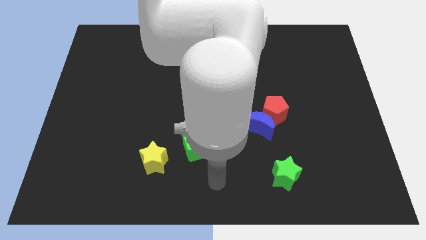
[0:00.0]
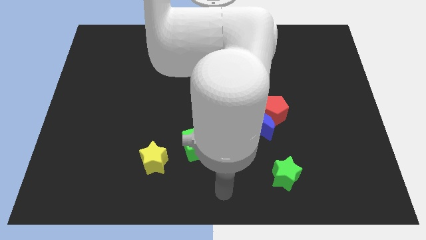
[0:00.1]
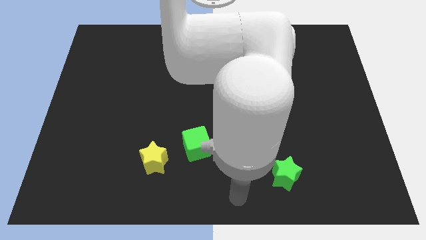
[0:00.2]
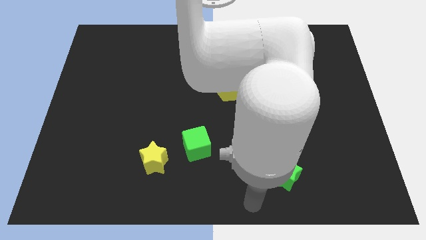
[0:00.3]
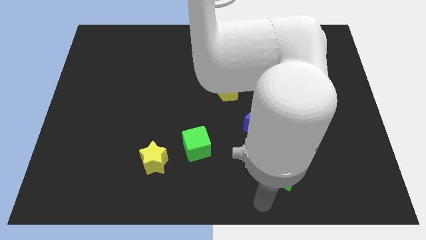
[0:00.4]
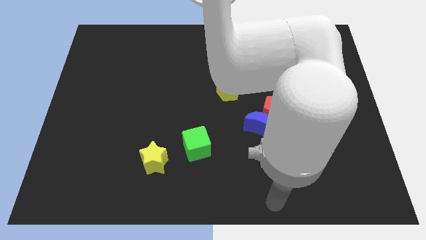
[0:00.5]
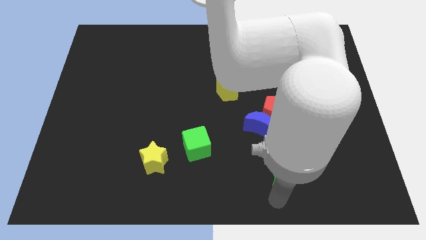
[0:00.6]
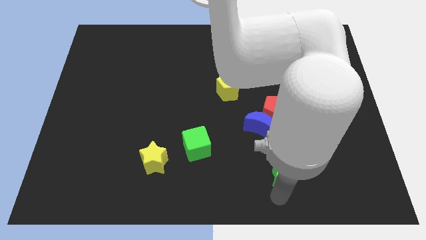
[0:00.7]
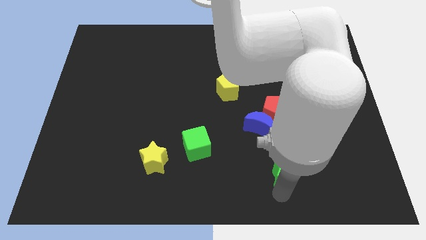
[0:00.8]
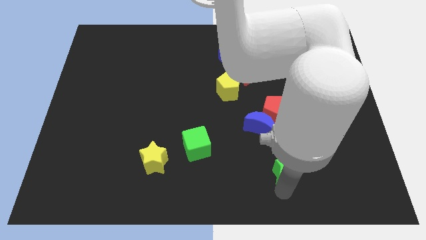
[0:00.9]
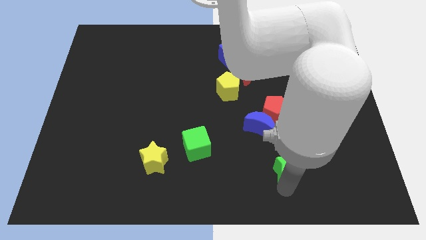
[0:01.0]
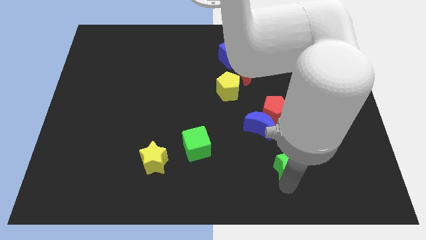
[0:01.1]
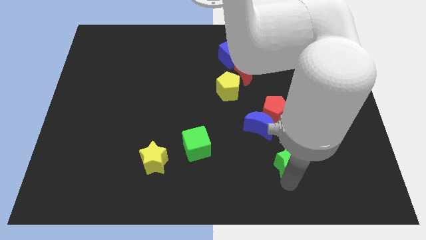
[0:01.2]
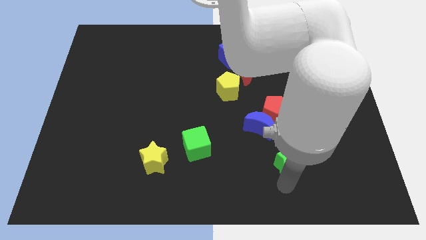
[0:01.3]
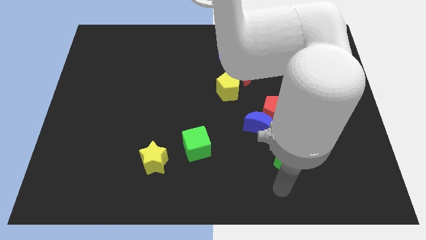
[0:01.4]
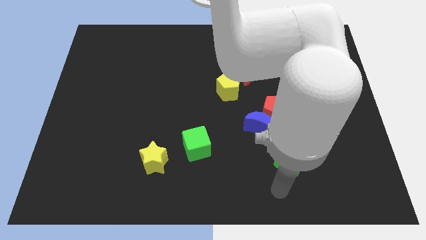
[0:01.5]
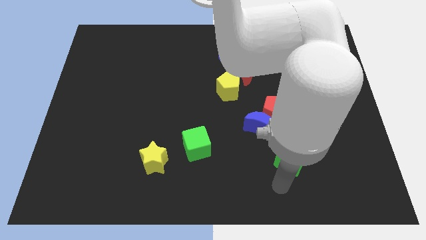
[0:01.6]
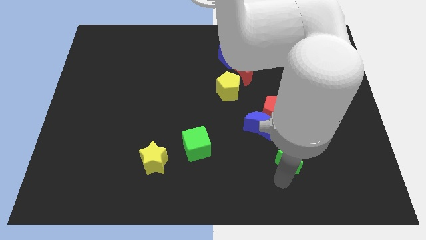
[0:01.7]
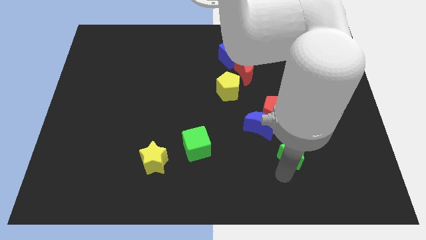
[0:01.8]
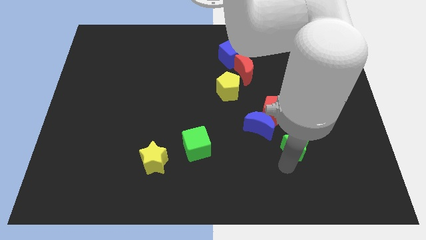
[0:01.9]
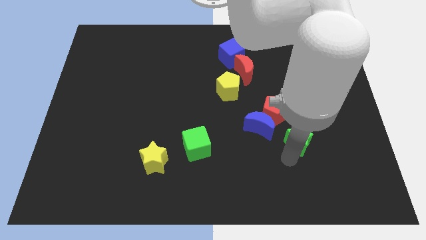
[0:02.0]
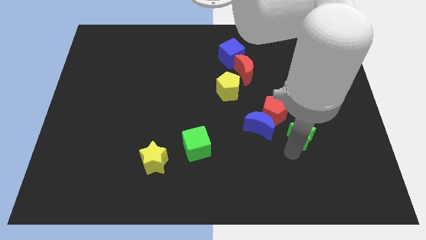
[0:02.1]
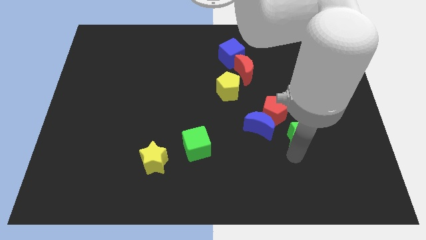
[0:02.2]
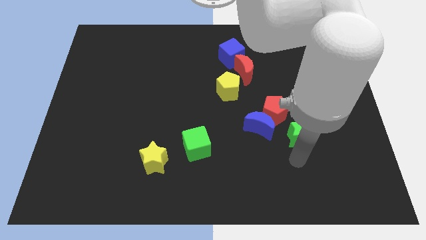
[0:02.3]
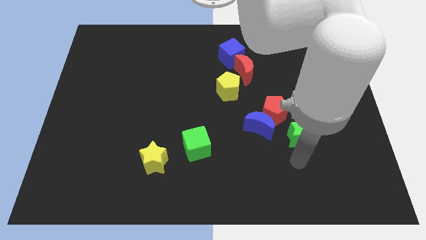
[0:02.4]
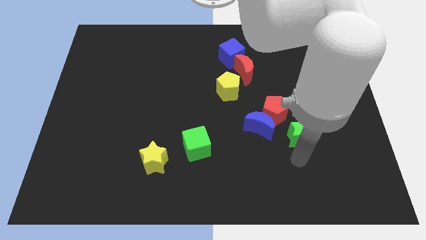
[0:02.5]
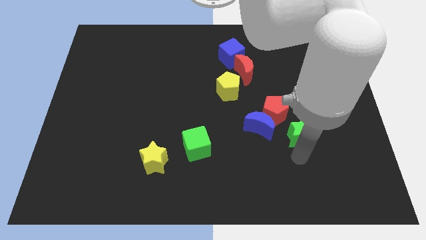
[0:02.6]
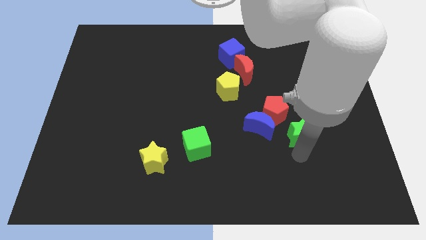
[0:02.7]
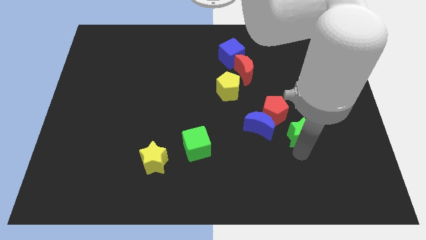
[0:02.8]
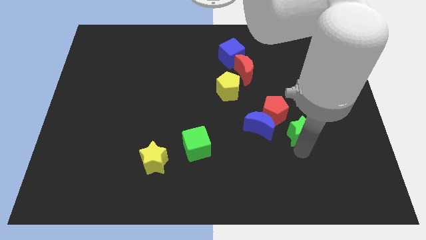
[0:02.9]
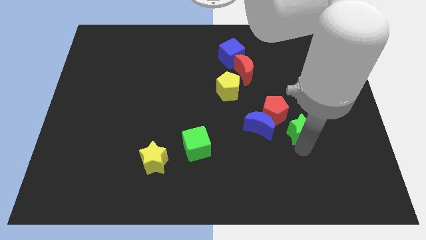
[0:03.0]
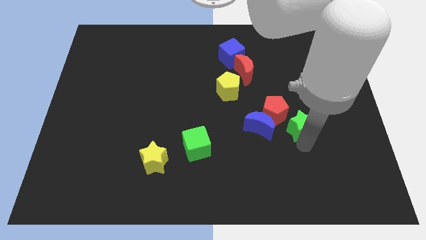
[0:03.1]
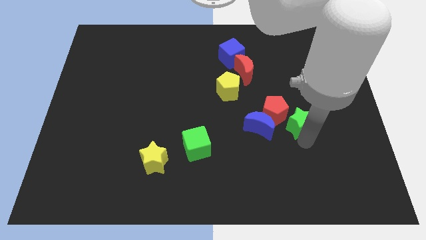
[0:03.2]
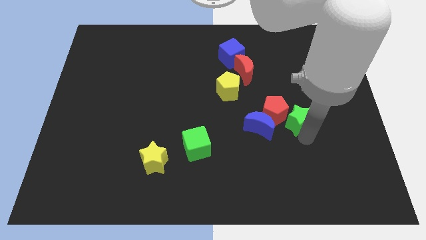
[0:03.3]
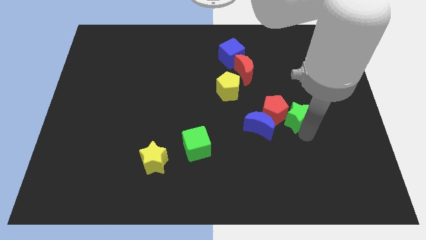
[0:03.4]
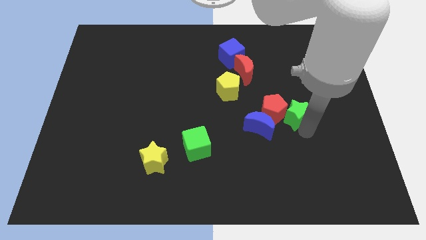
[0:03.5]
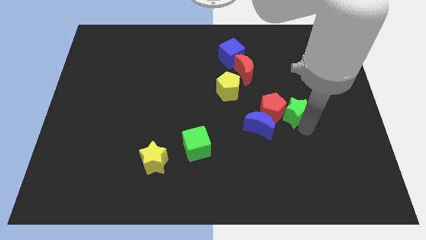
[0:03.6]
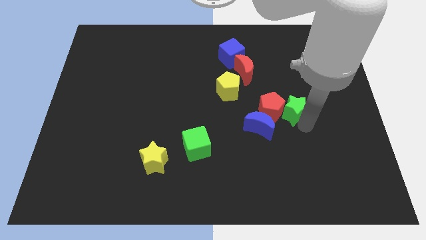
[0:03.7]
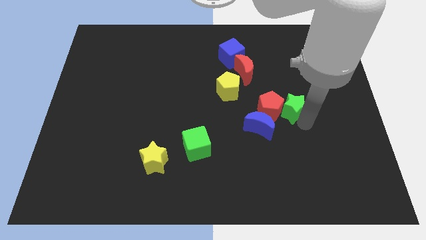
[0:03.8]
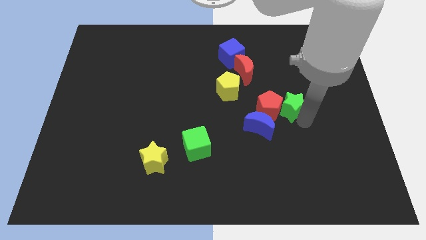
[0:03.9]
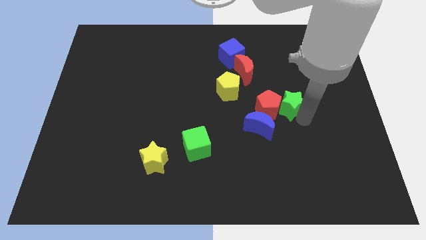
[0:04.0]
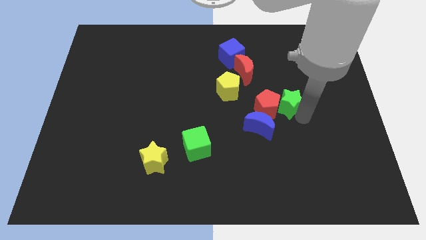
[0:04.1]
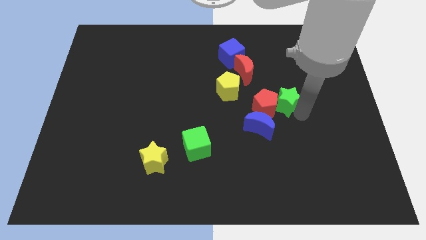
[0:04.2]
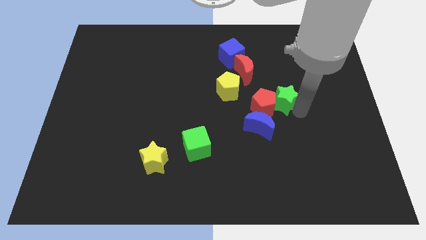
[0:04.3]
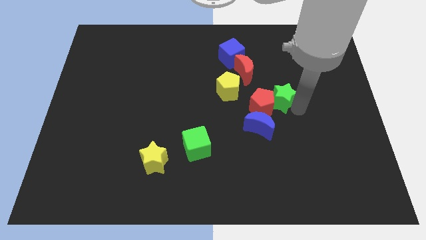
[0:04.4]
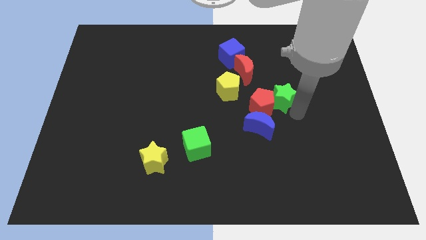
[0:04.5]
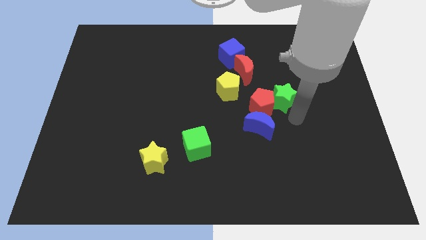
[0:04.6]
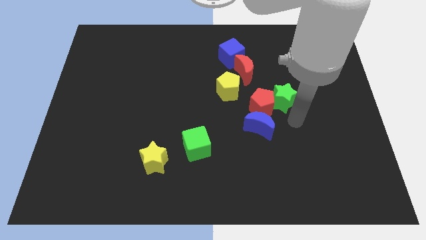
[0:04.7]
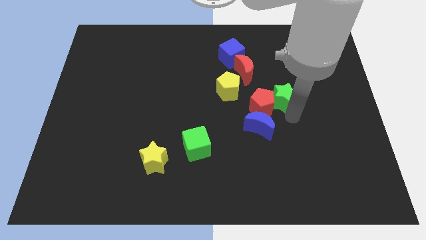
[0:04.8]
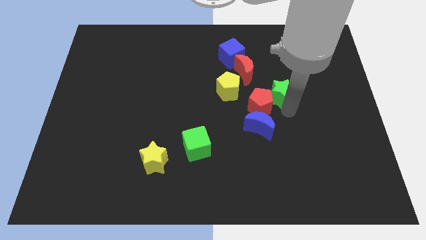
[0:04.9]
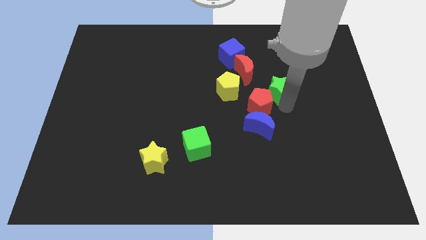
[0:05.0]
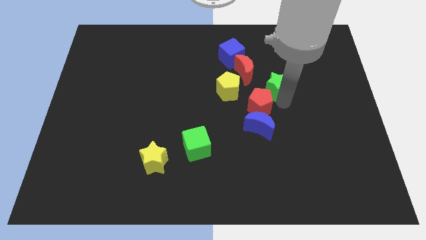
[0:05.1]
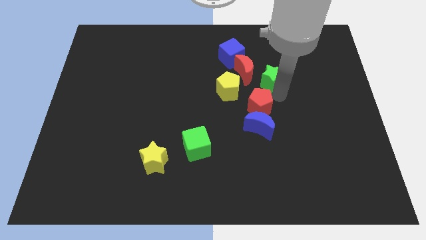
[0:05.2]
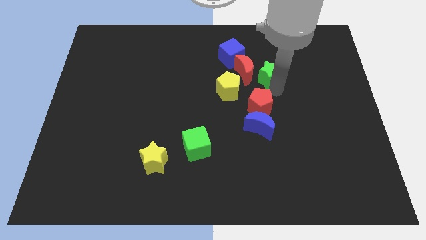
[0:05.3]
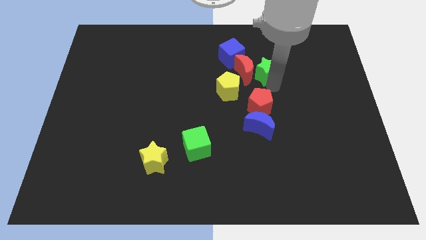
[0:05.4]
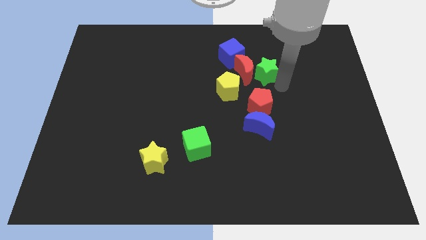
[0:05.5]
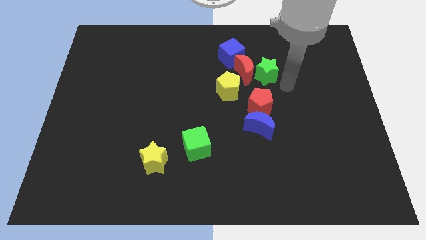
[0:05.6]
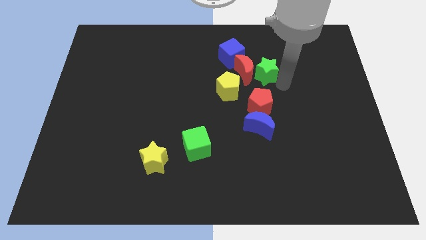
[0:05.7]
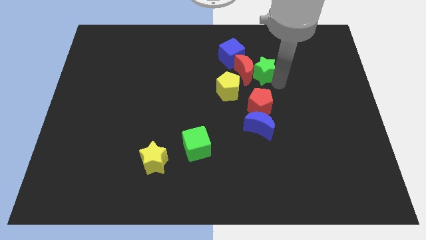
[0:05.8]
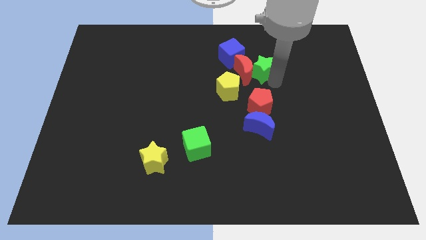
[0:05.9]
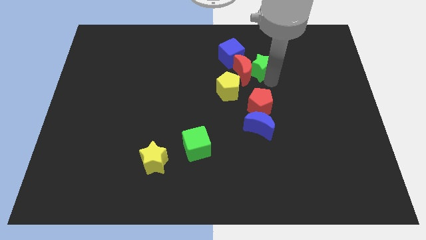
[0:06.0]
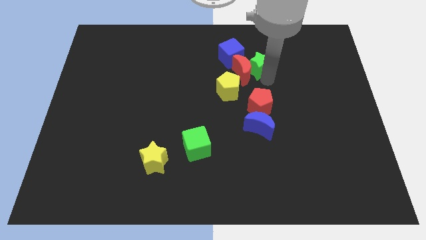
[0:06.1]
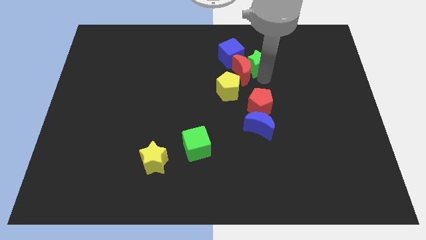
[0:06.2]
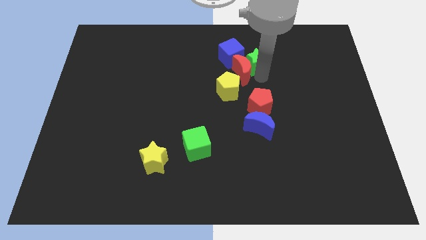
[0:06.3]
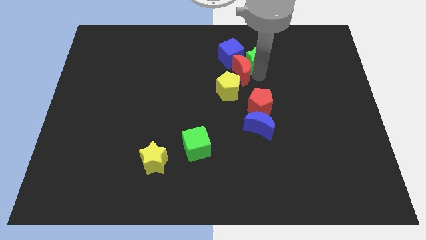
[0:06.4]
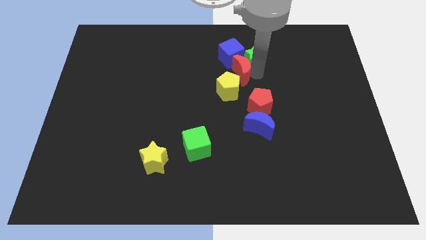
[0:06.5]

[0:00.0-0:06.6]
slide the green star close to the blue cube

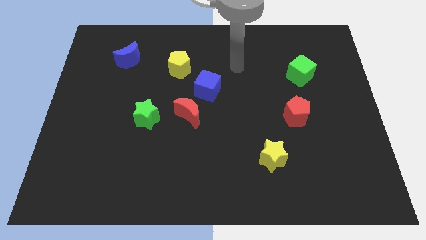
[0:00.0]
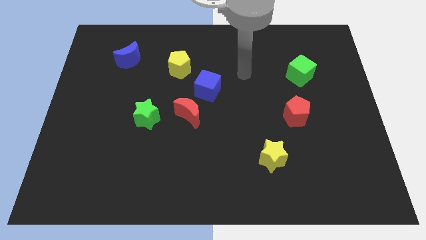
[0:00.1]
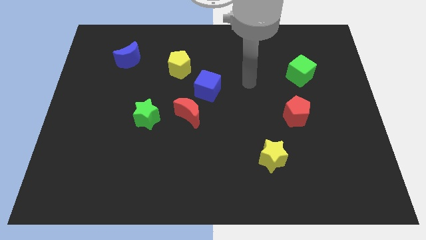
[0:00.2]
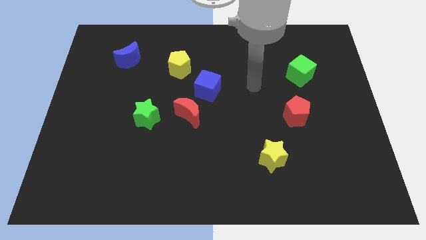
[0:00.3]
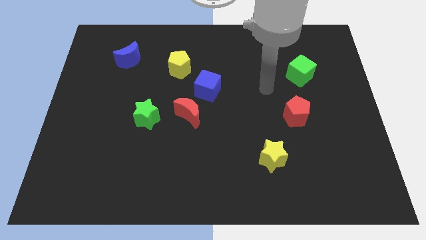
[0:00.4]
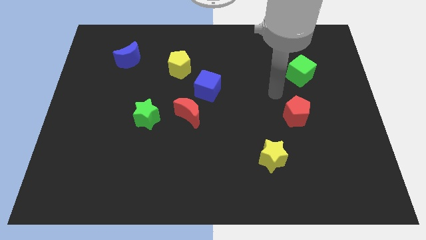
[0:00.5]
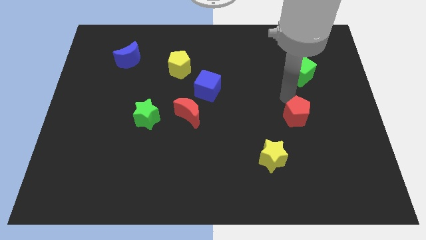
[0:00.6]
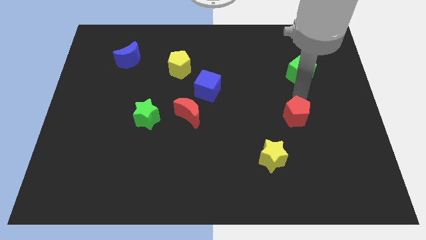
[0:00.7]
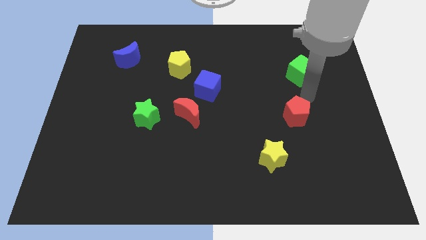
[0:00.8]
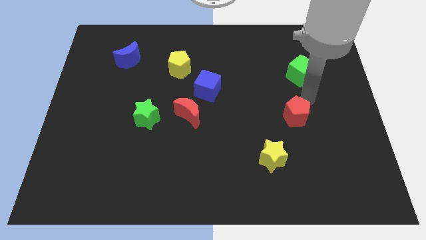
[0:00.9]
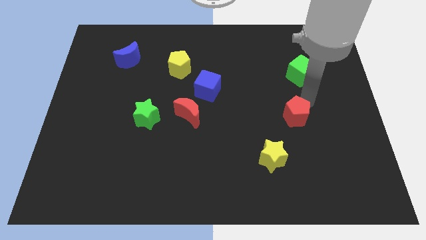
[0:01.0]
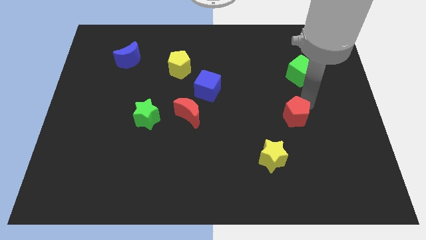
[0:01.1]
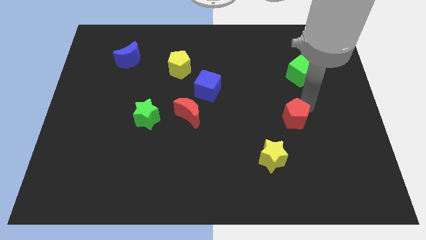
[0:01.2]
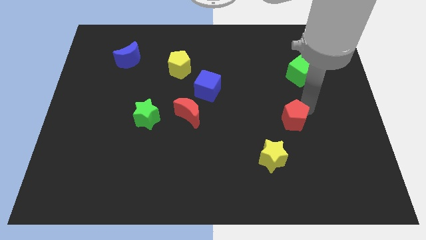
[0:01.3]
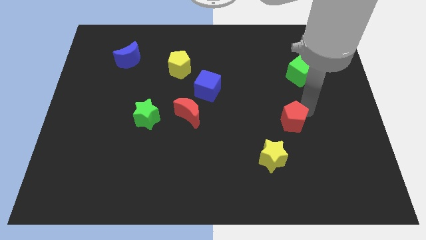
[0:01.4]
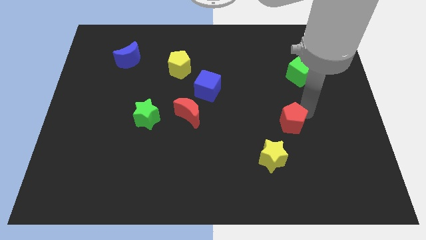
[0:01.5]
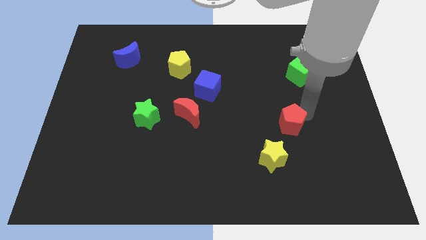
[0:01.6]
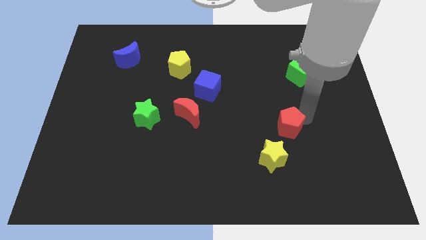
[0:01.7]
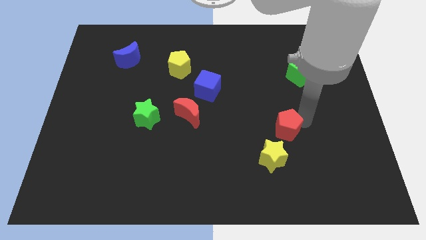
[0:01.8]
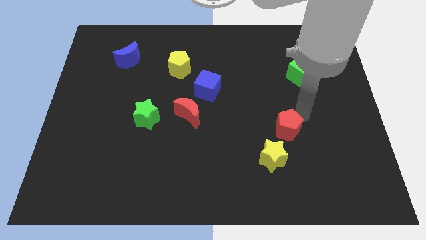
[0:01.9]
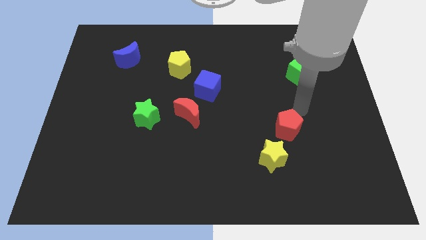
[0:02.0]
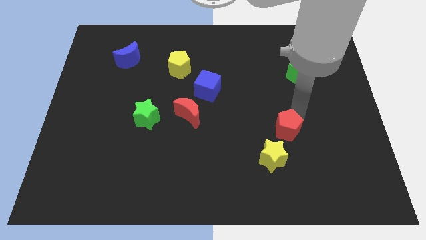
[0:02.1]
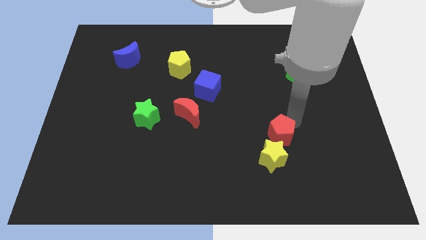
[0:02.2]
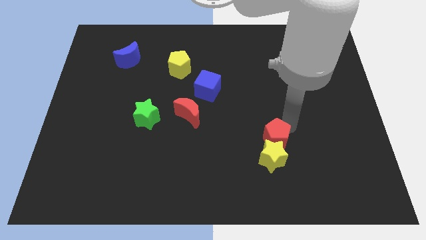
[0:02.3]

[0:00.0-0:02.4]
push the red pentagon towards the yellow star
